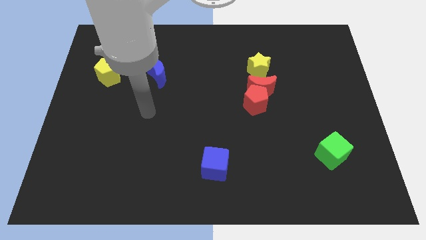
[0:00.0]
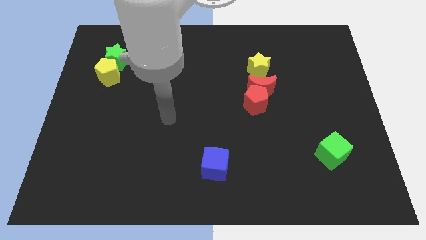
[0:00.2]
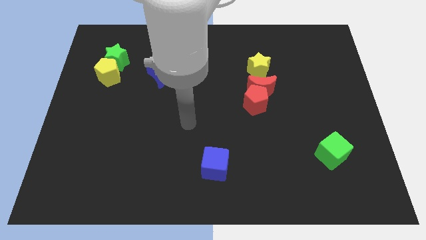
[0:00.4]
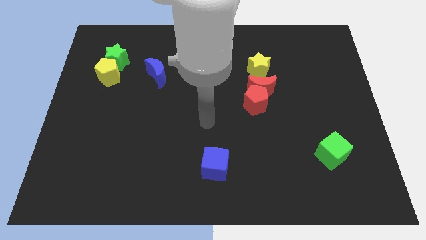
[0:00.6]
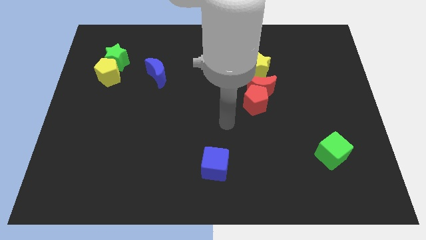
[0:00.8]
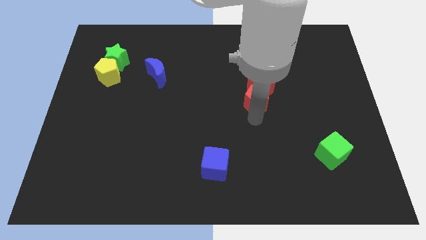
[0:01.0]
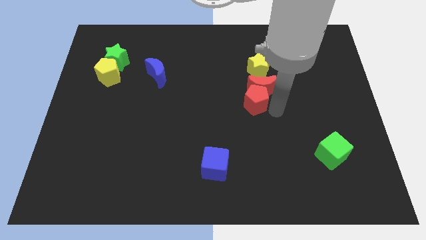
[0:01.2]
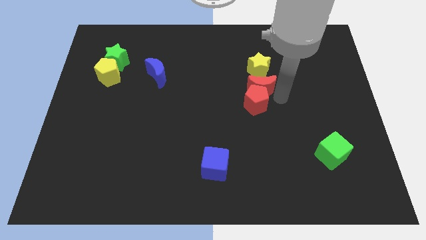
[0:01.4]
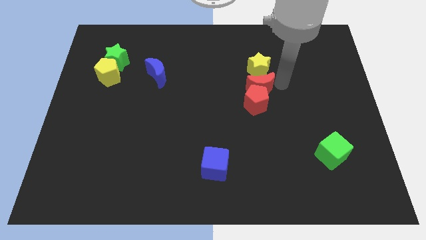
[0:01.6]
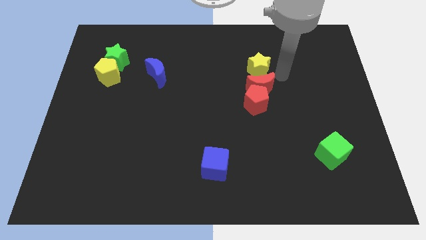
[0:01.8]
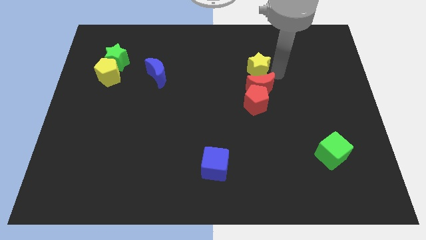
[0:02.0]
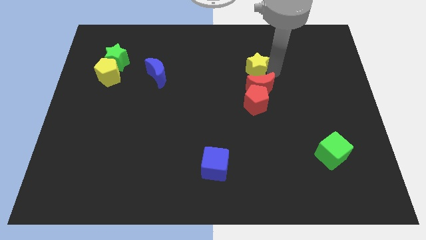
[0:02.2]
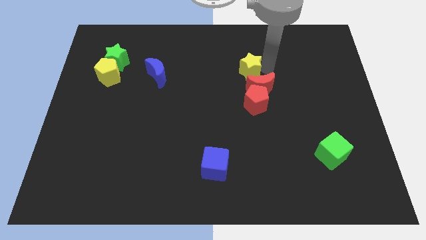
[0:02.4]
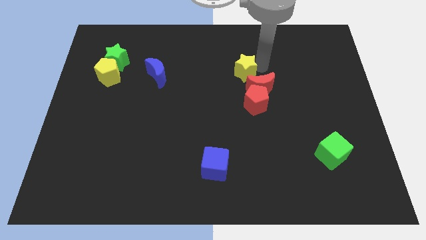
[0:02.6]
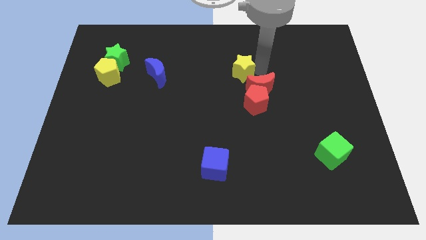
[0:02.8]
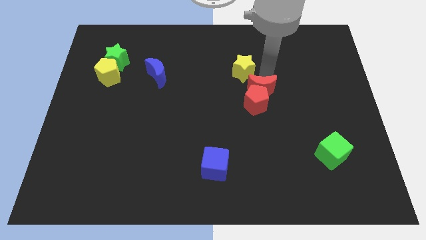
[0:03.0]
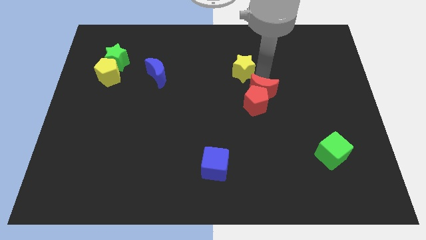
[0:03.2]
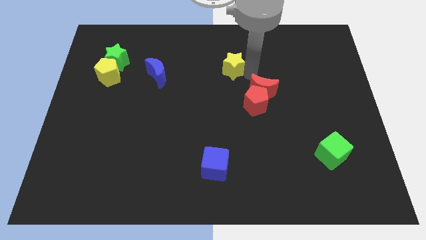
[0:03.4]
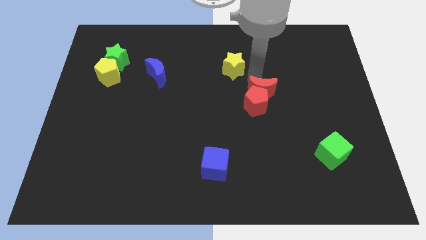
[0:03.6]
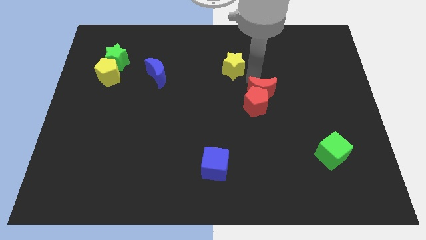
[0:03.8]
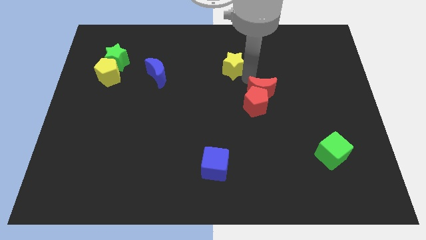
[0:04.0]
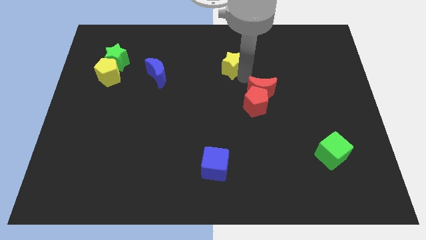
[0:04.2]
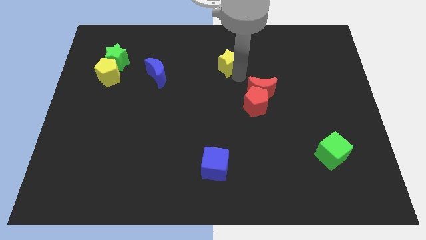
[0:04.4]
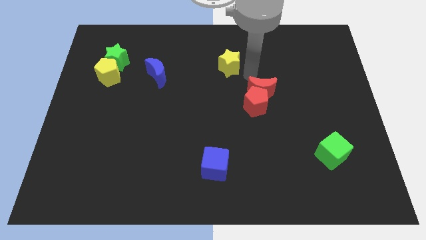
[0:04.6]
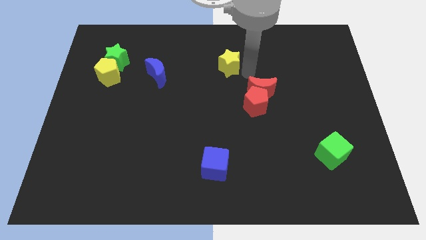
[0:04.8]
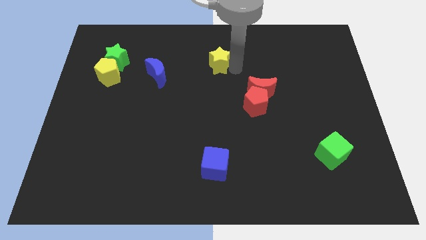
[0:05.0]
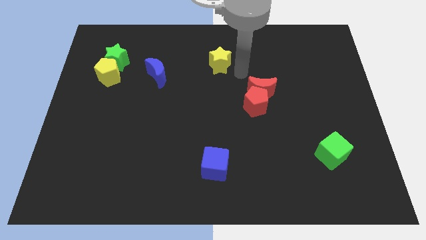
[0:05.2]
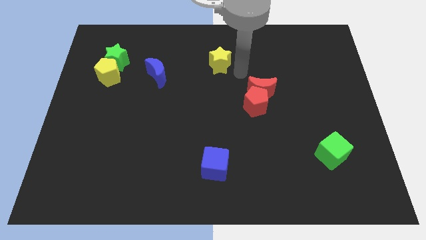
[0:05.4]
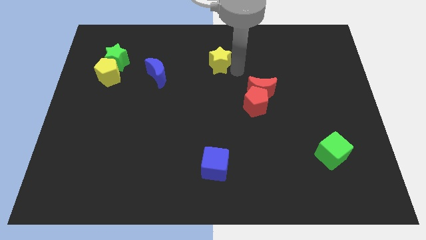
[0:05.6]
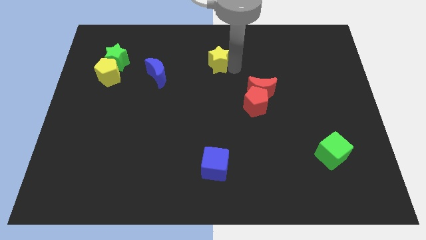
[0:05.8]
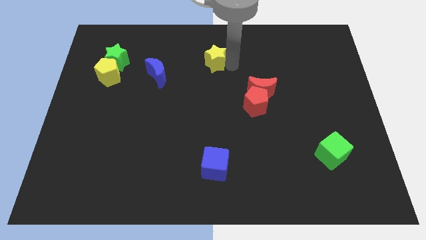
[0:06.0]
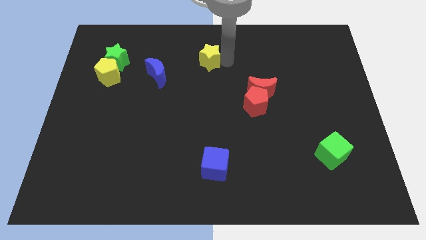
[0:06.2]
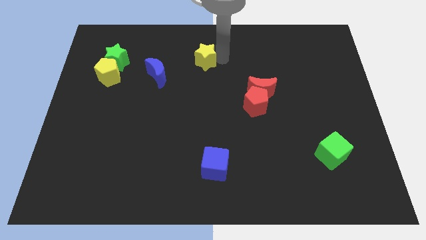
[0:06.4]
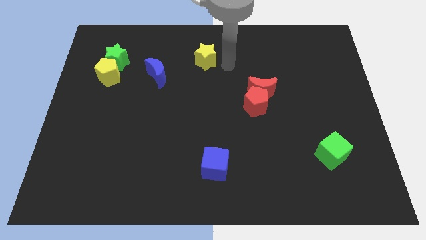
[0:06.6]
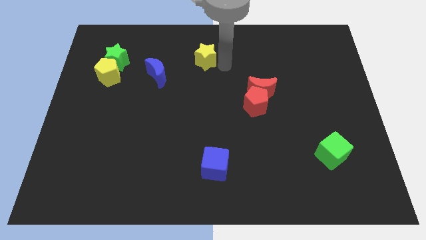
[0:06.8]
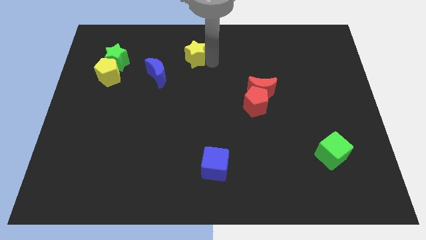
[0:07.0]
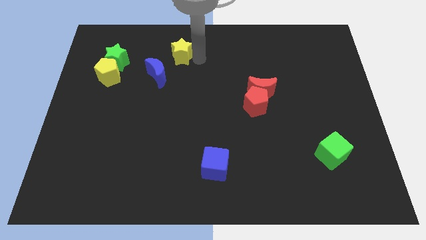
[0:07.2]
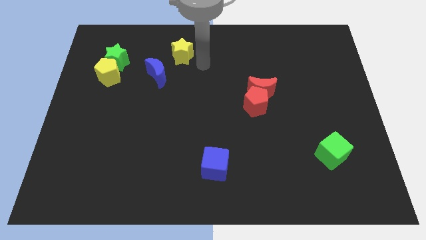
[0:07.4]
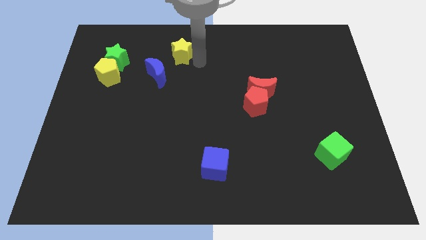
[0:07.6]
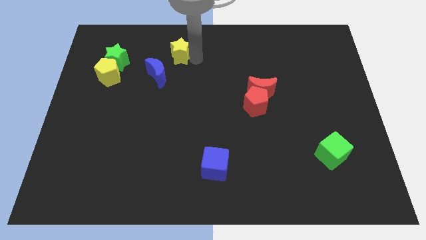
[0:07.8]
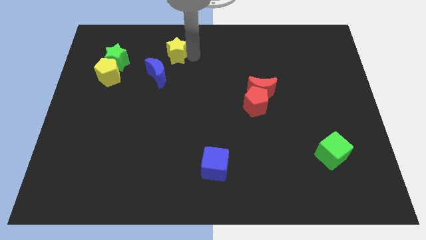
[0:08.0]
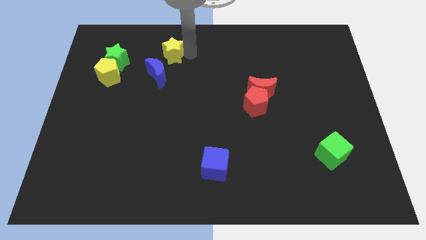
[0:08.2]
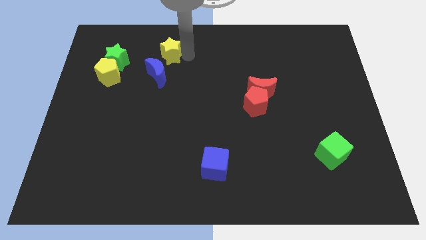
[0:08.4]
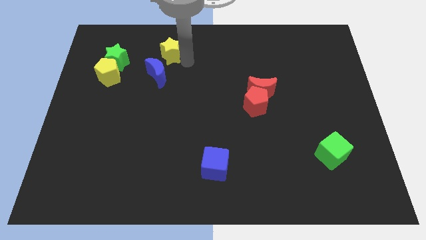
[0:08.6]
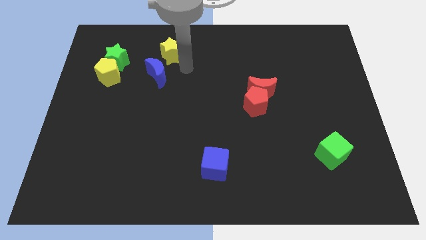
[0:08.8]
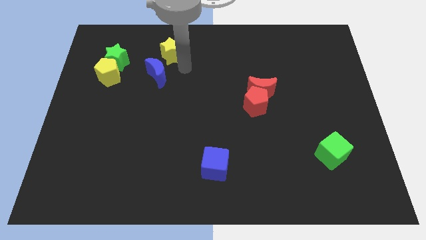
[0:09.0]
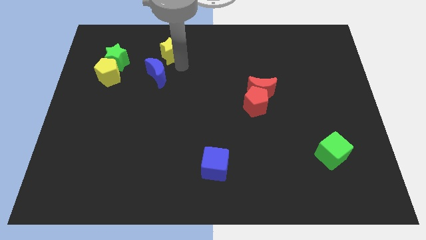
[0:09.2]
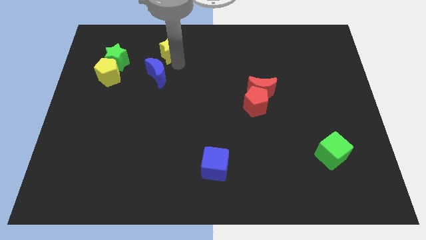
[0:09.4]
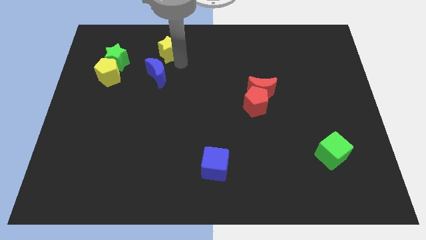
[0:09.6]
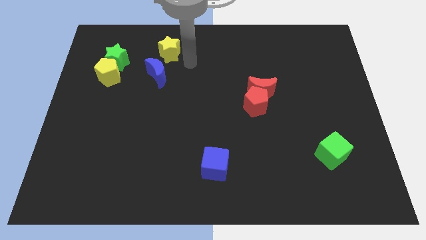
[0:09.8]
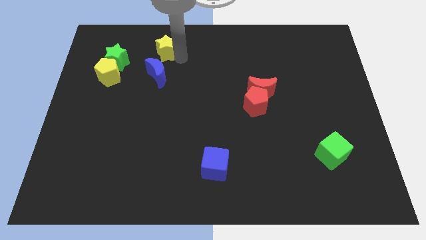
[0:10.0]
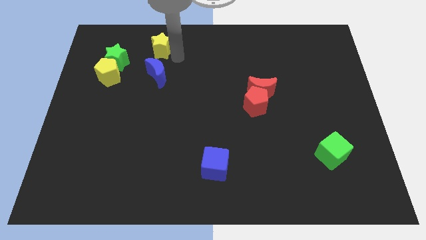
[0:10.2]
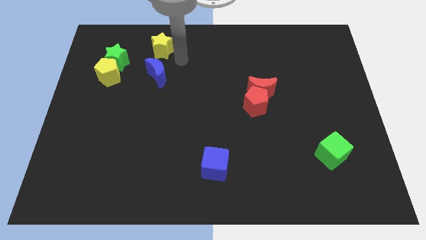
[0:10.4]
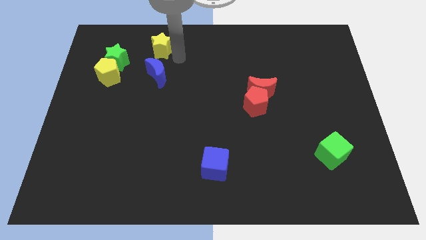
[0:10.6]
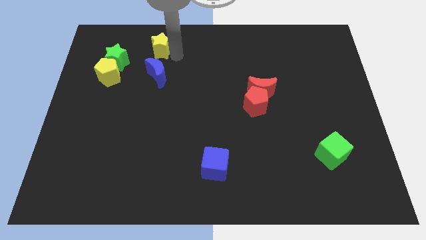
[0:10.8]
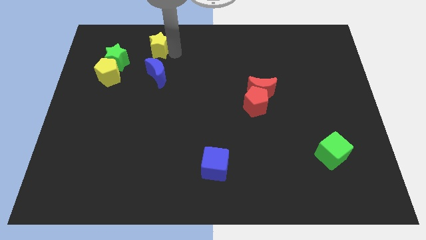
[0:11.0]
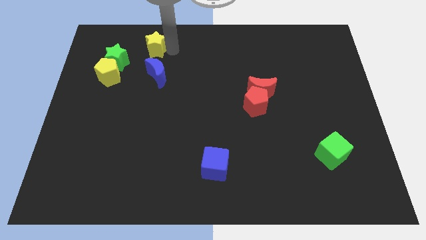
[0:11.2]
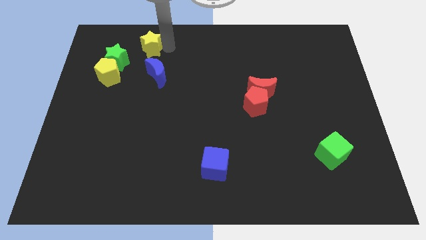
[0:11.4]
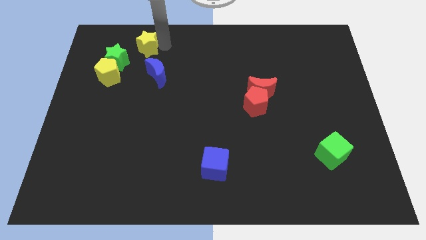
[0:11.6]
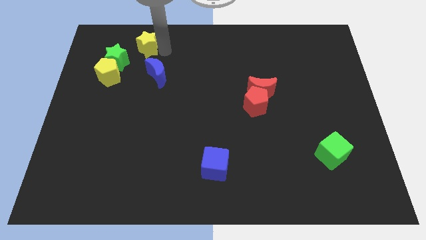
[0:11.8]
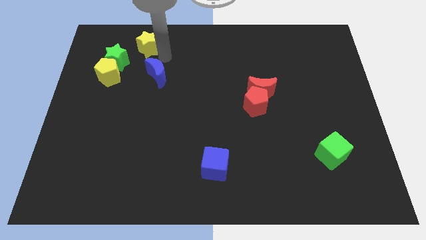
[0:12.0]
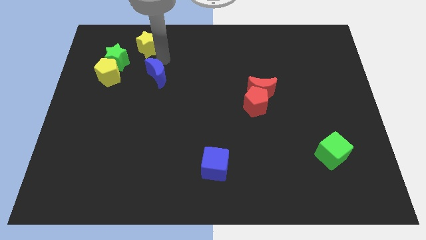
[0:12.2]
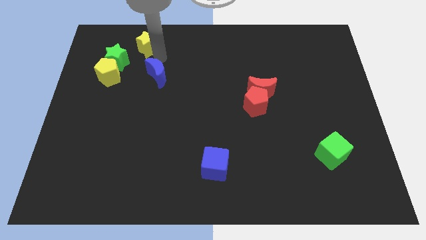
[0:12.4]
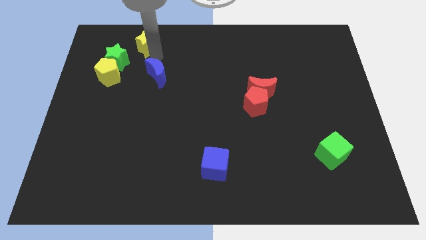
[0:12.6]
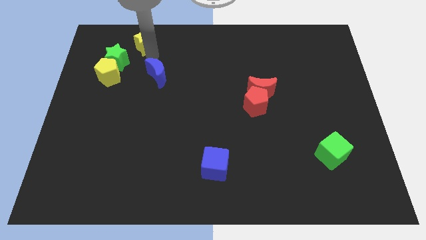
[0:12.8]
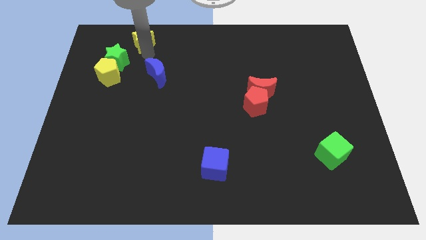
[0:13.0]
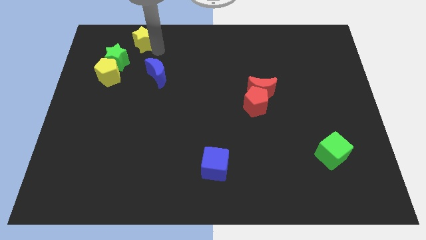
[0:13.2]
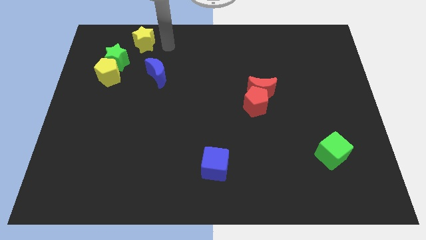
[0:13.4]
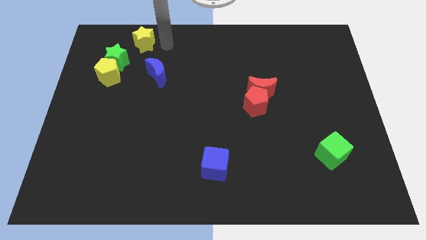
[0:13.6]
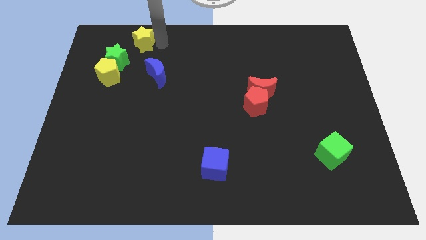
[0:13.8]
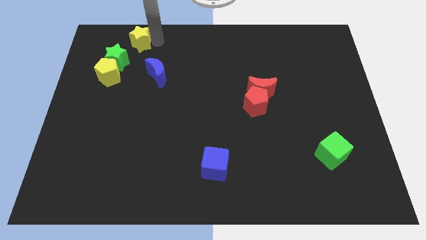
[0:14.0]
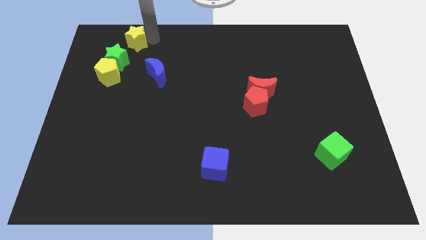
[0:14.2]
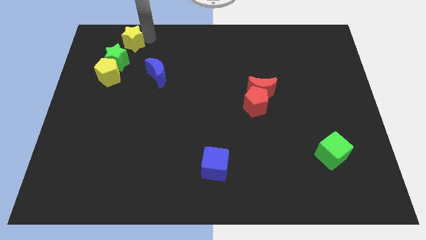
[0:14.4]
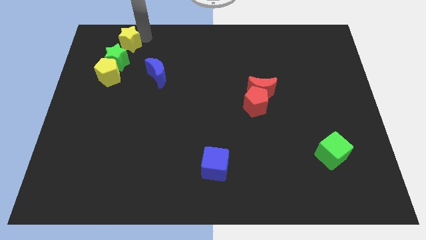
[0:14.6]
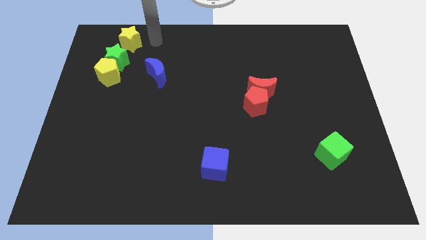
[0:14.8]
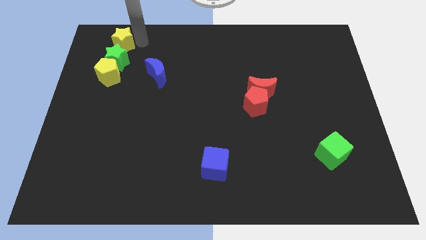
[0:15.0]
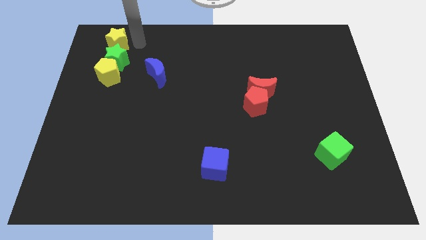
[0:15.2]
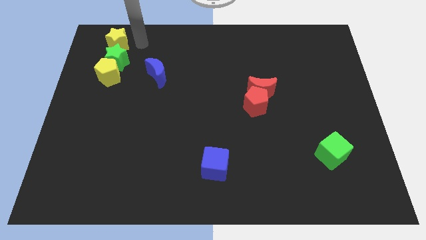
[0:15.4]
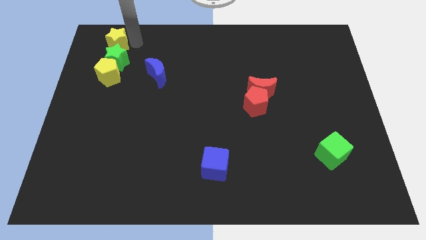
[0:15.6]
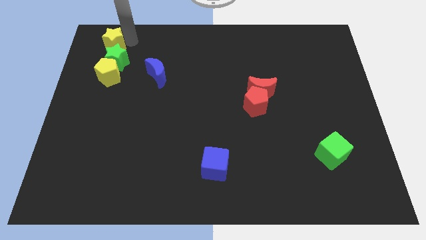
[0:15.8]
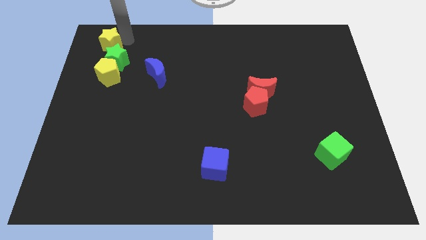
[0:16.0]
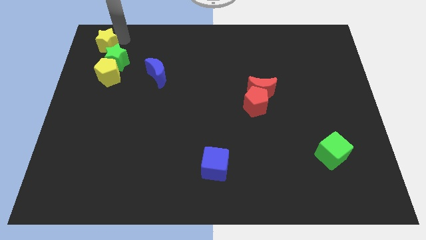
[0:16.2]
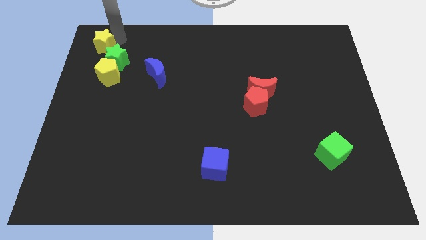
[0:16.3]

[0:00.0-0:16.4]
push the yellow star to the upper left corner
